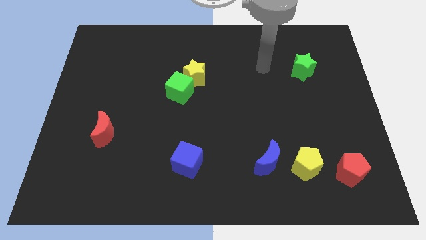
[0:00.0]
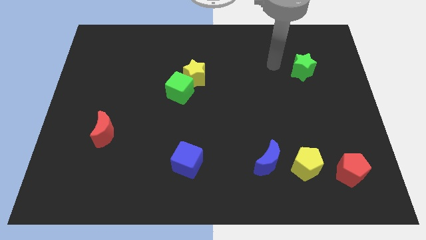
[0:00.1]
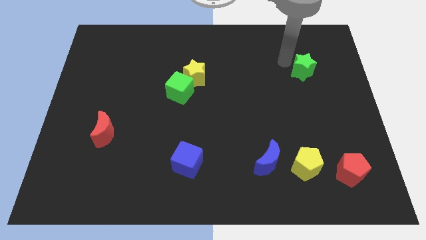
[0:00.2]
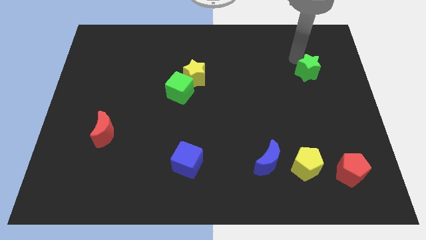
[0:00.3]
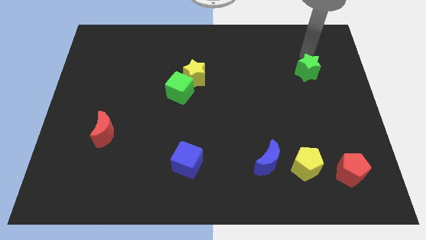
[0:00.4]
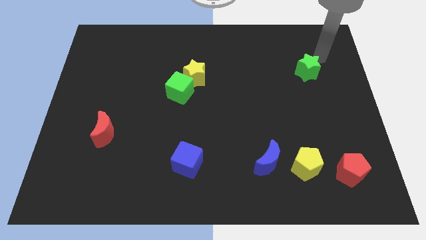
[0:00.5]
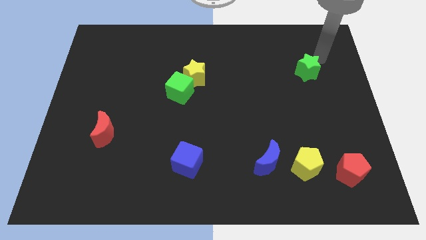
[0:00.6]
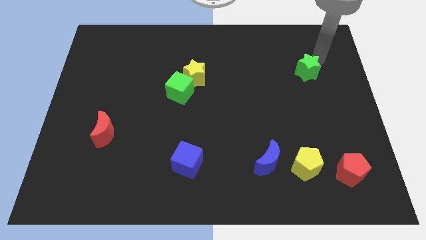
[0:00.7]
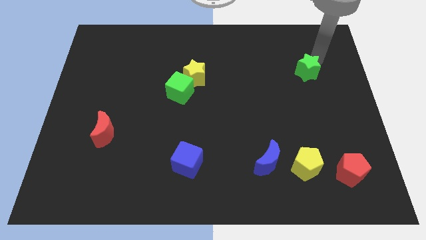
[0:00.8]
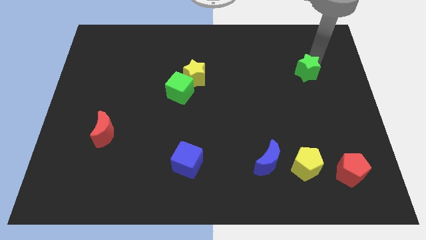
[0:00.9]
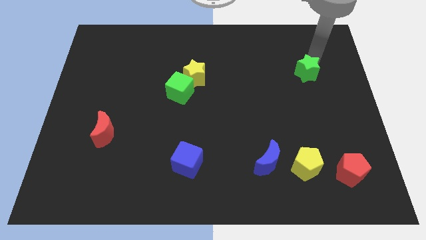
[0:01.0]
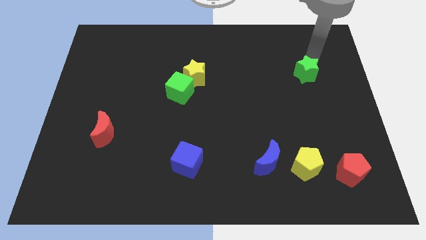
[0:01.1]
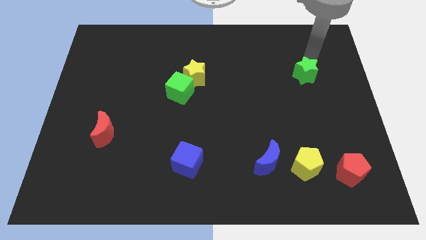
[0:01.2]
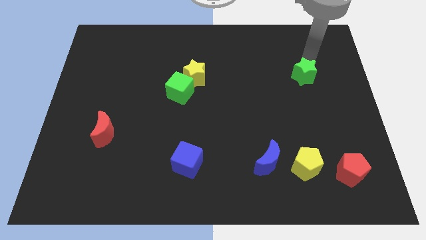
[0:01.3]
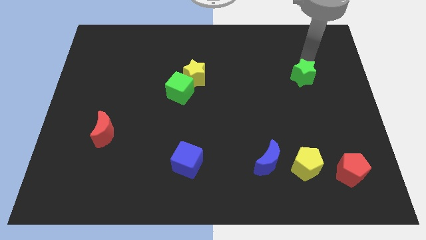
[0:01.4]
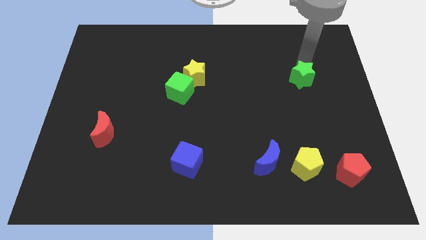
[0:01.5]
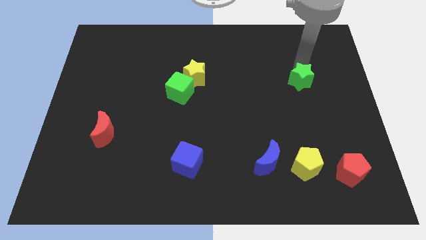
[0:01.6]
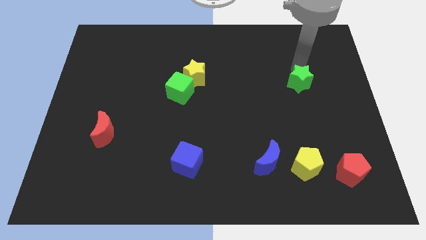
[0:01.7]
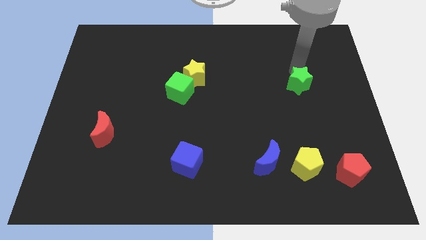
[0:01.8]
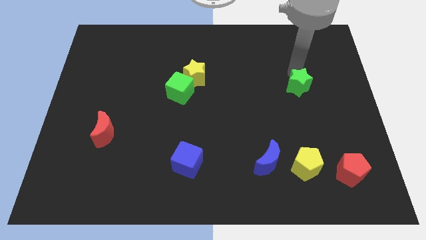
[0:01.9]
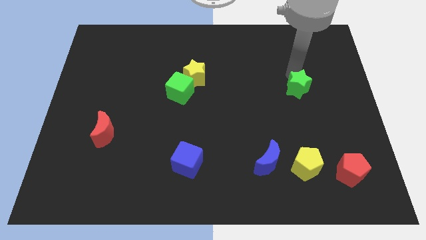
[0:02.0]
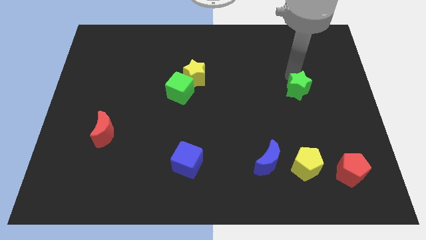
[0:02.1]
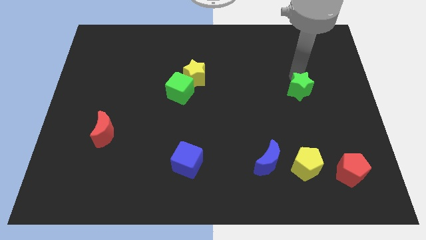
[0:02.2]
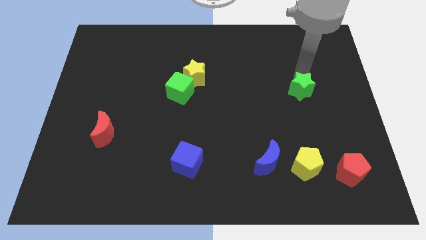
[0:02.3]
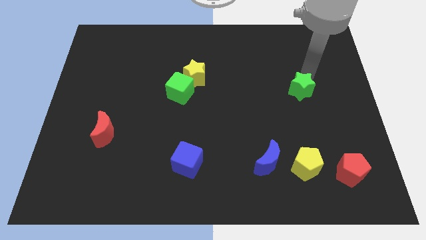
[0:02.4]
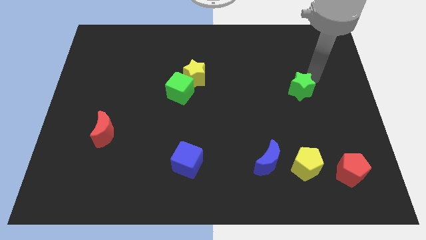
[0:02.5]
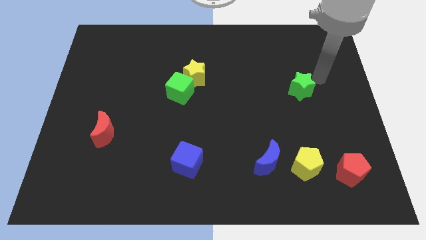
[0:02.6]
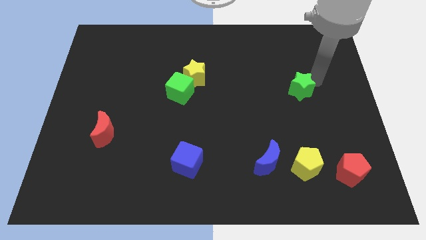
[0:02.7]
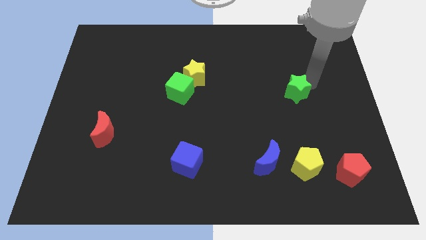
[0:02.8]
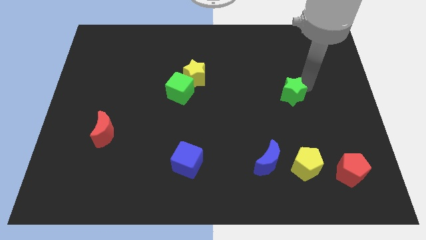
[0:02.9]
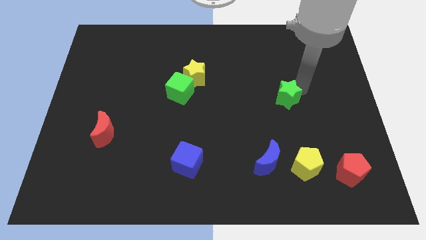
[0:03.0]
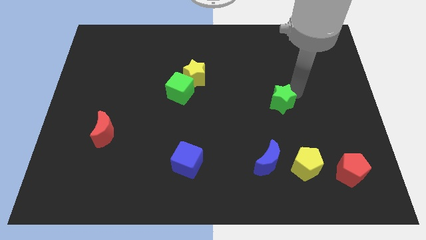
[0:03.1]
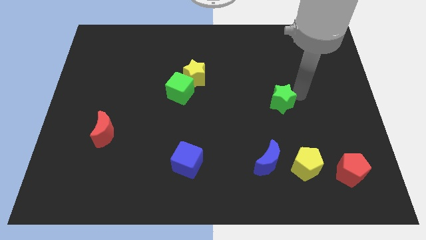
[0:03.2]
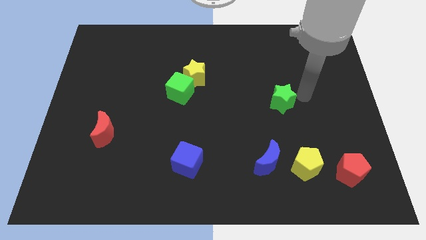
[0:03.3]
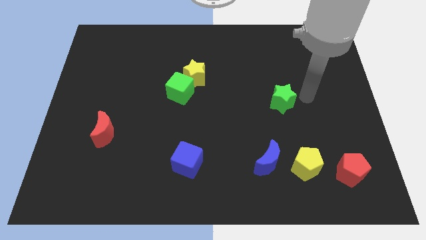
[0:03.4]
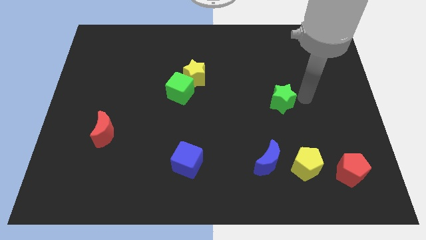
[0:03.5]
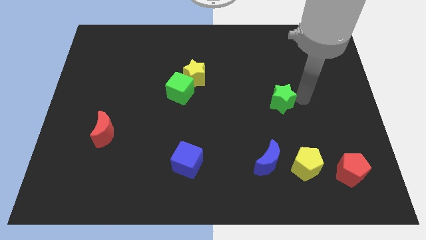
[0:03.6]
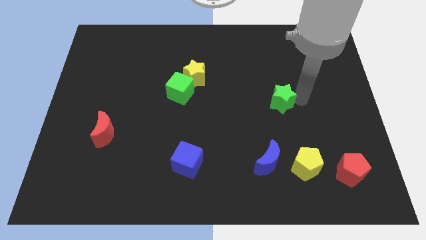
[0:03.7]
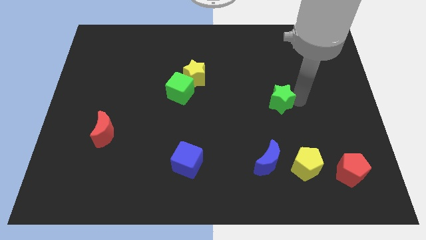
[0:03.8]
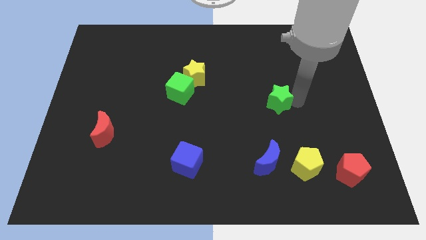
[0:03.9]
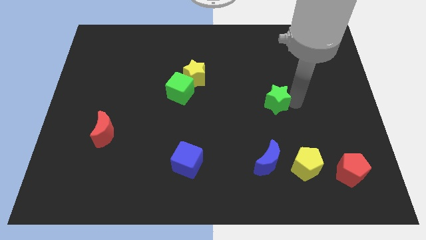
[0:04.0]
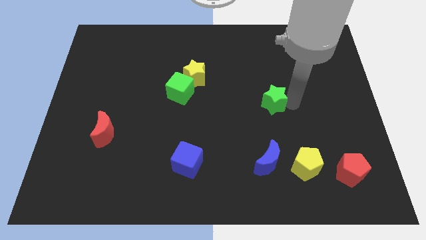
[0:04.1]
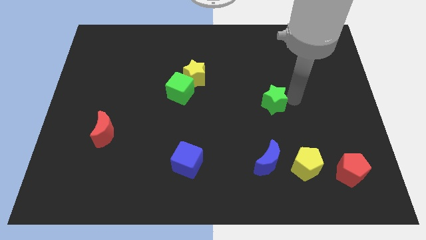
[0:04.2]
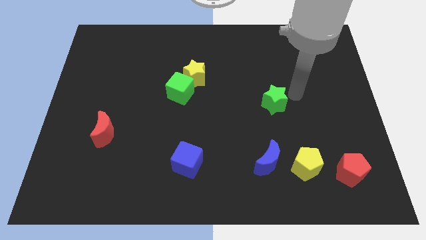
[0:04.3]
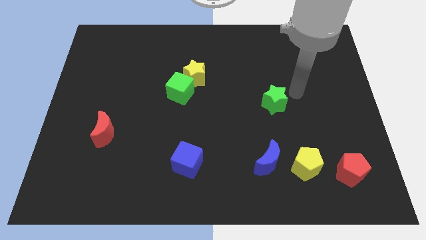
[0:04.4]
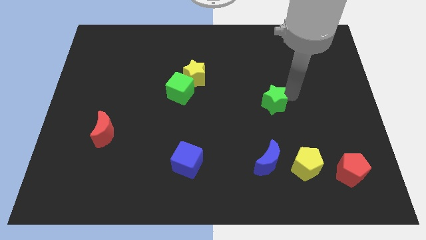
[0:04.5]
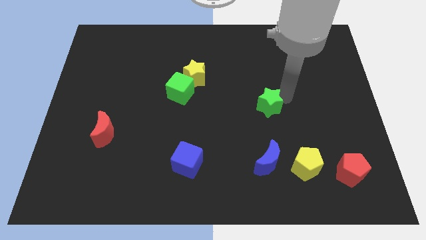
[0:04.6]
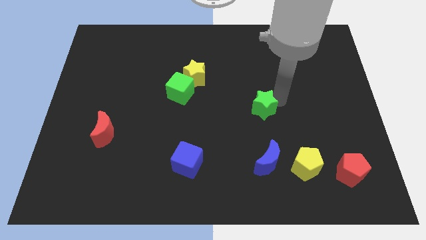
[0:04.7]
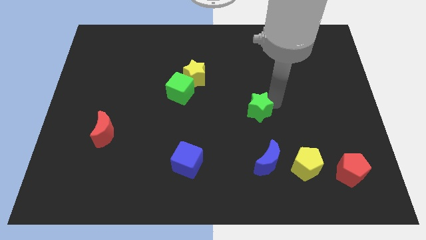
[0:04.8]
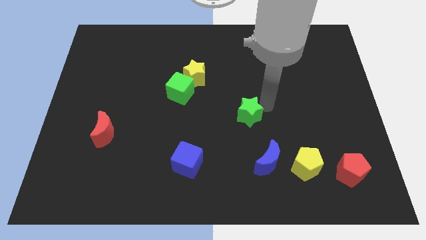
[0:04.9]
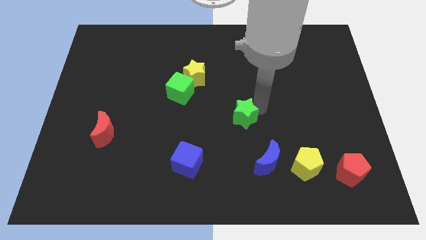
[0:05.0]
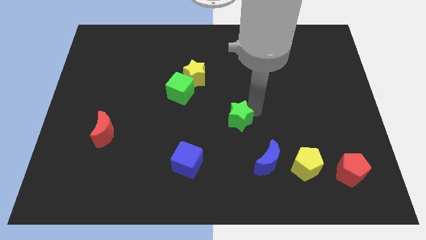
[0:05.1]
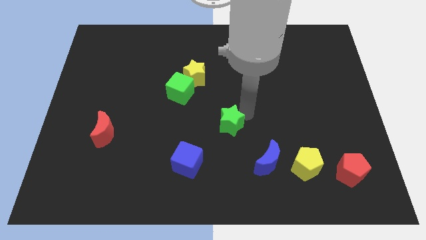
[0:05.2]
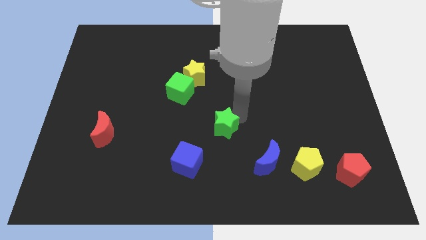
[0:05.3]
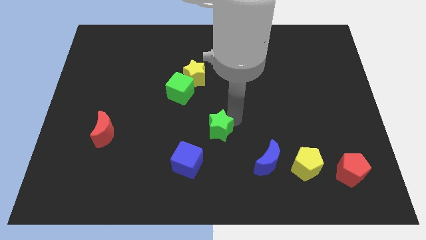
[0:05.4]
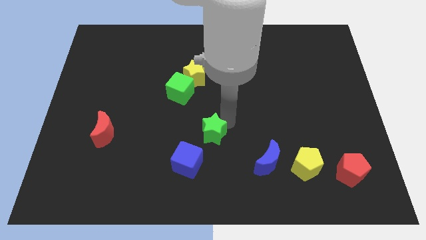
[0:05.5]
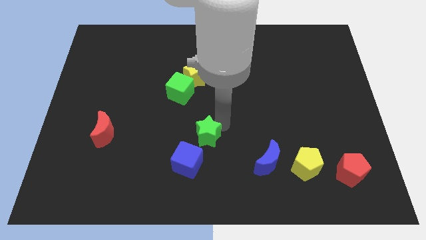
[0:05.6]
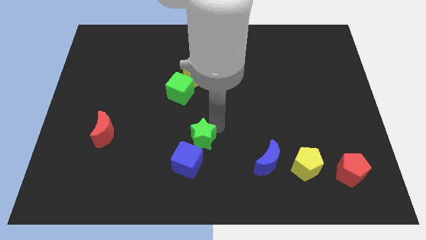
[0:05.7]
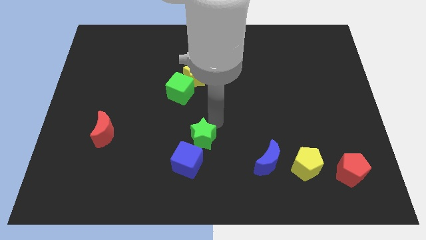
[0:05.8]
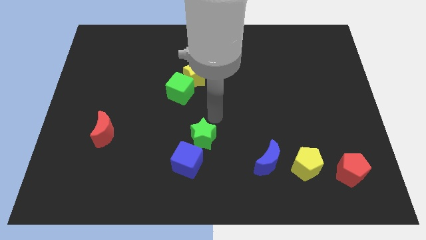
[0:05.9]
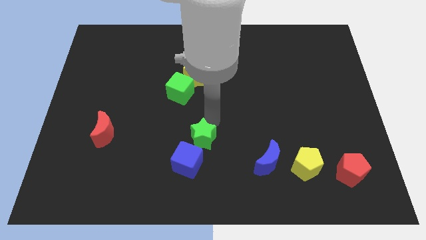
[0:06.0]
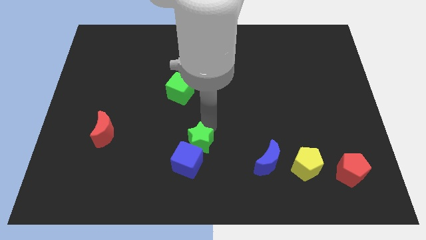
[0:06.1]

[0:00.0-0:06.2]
put the green star to the blue cube

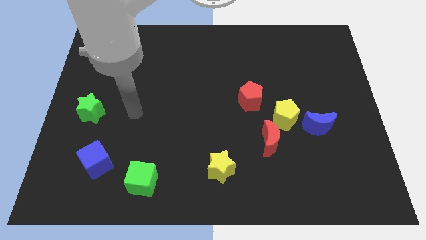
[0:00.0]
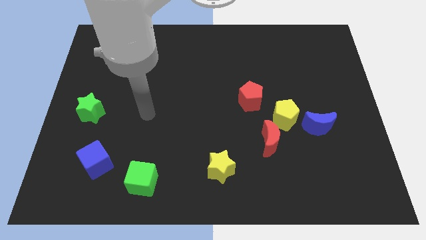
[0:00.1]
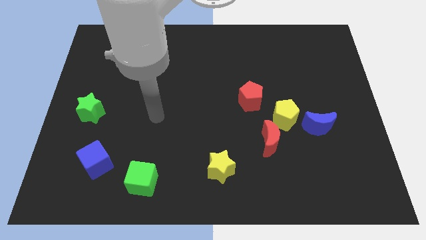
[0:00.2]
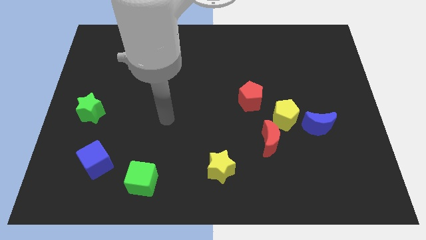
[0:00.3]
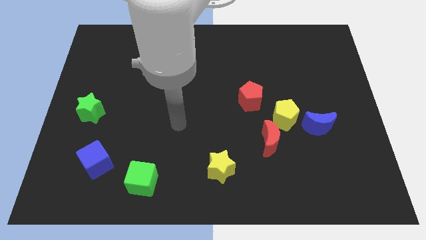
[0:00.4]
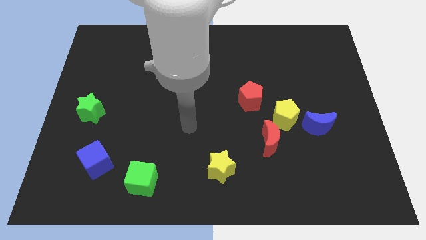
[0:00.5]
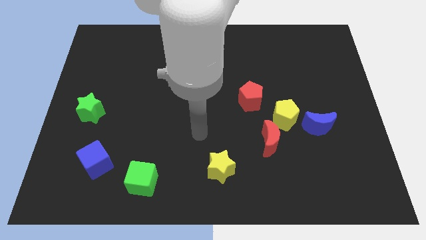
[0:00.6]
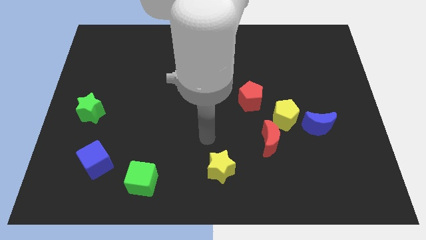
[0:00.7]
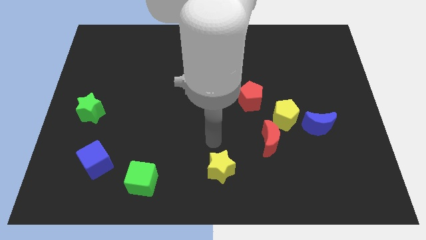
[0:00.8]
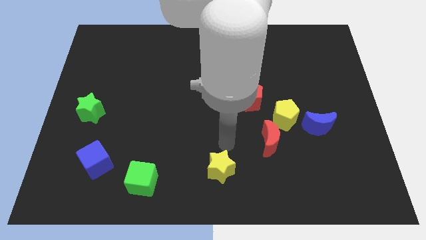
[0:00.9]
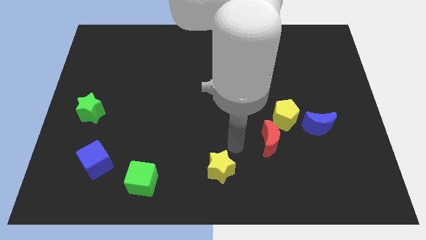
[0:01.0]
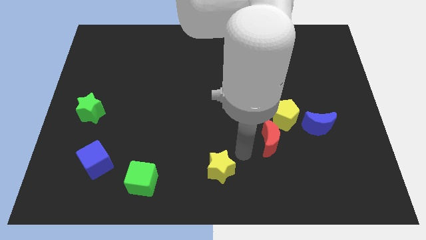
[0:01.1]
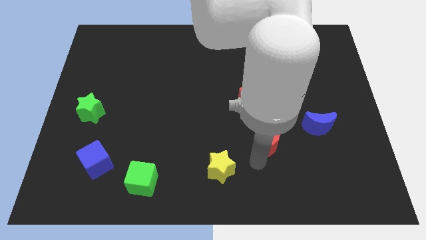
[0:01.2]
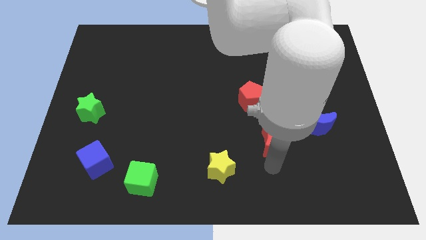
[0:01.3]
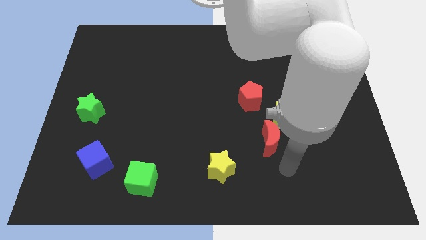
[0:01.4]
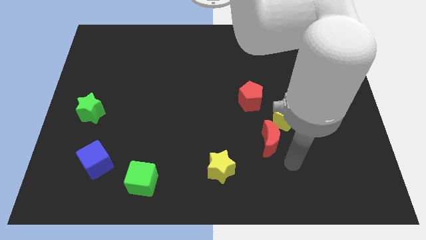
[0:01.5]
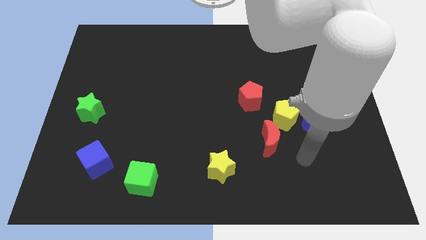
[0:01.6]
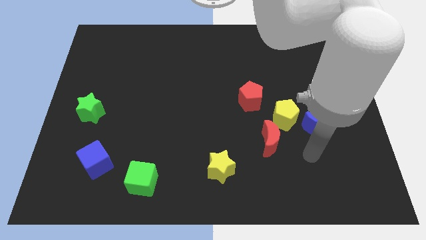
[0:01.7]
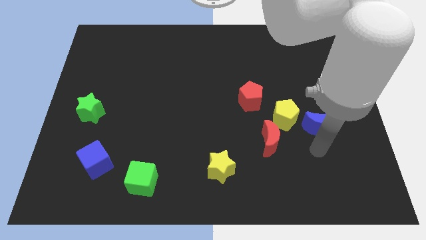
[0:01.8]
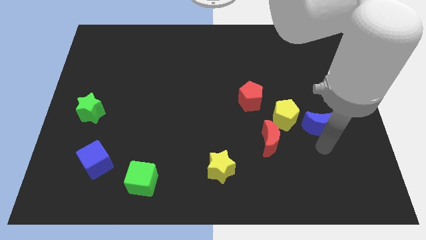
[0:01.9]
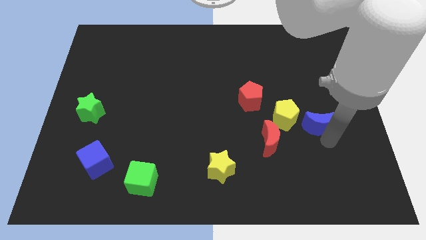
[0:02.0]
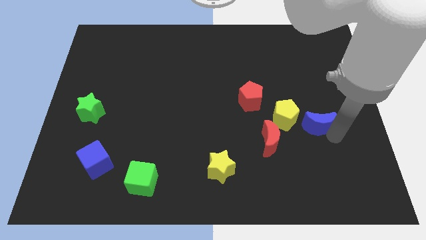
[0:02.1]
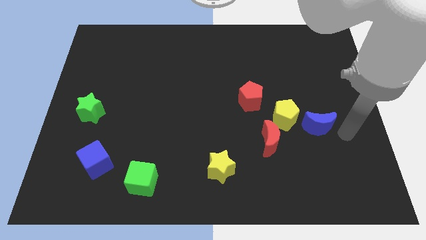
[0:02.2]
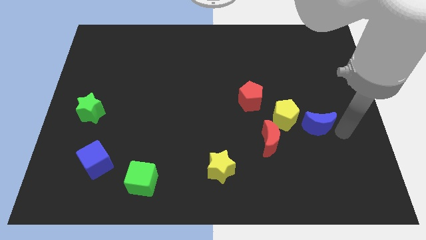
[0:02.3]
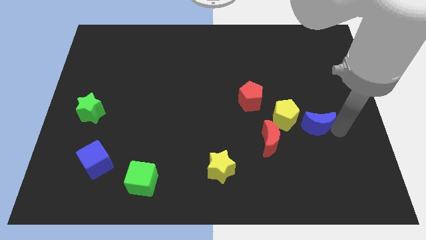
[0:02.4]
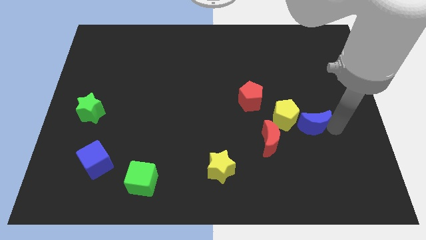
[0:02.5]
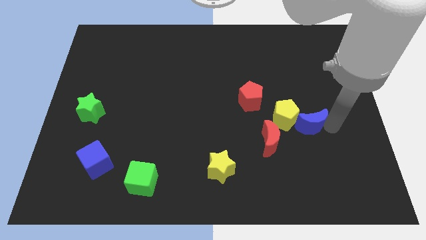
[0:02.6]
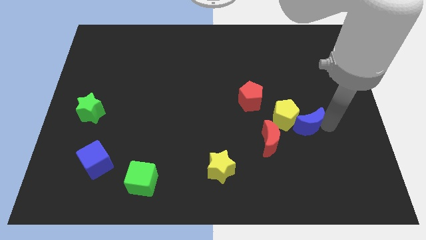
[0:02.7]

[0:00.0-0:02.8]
put the blue moon towards the yellow pentagon
